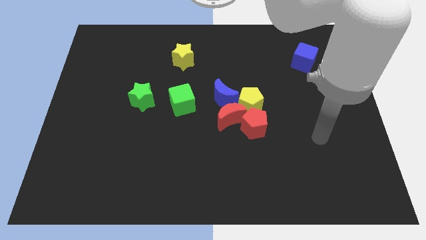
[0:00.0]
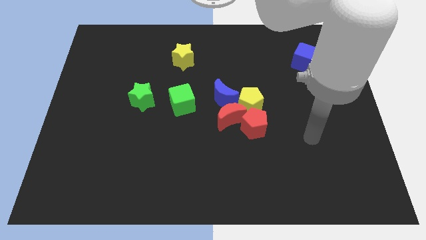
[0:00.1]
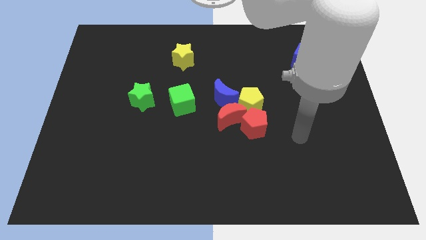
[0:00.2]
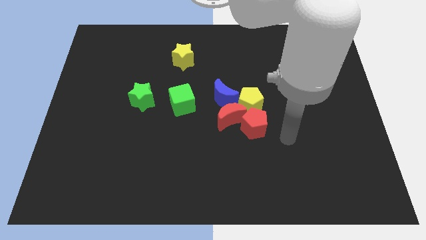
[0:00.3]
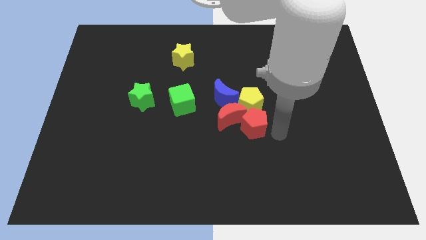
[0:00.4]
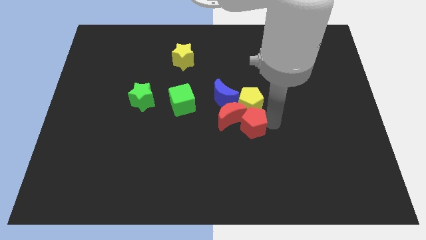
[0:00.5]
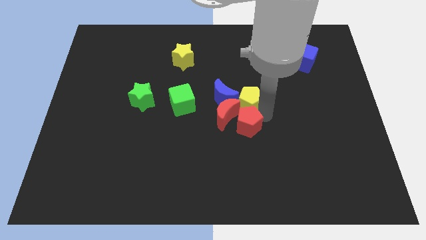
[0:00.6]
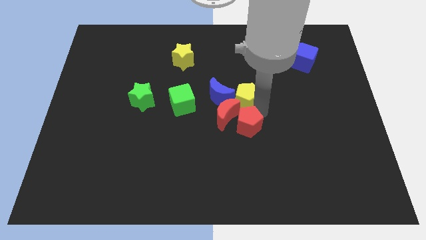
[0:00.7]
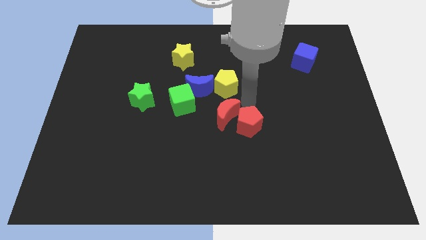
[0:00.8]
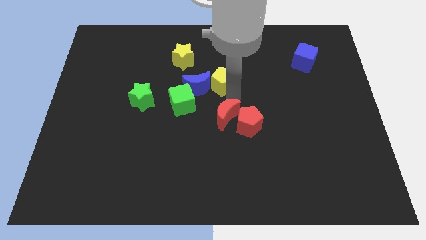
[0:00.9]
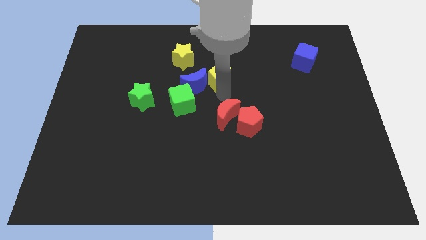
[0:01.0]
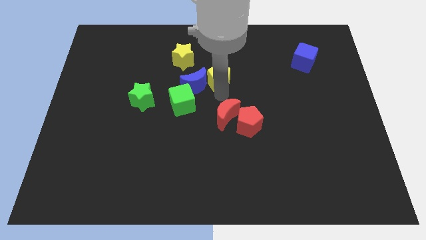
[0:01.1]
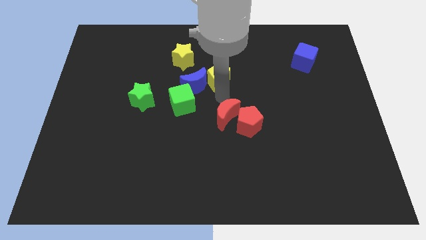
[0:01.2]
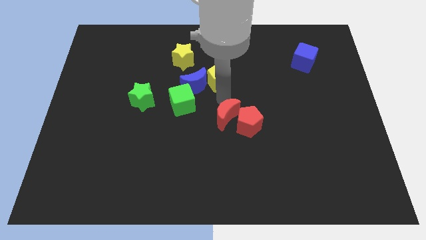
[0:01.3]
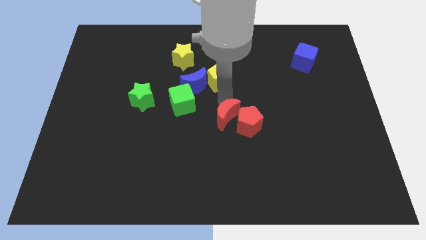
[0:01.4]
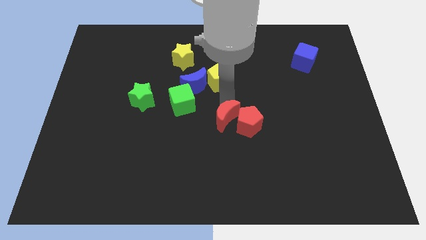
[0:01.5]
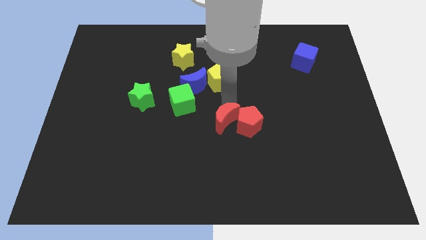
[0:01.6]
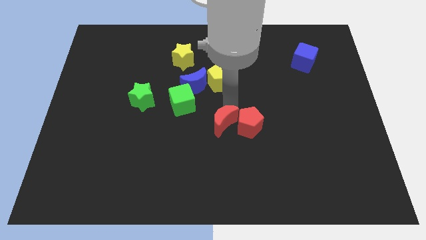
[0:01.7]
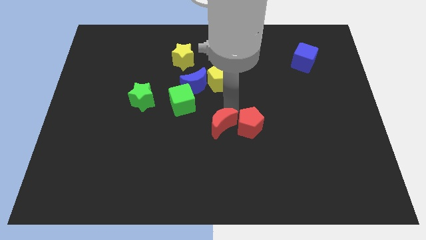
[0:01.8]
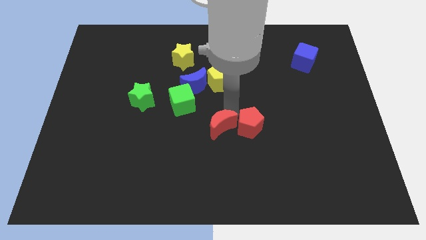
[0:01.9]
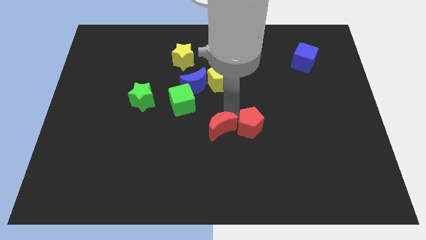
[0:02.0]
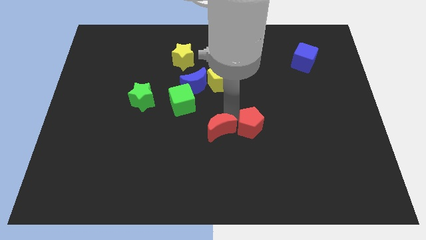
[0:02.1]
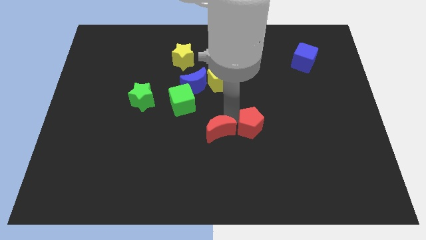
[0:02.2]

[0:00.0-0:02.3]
separate the red moon from the group

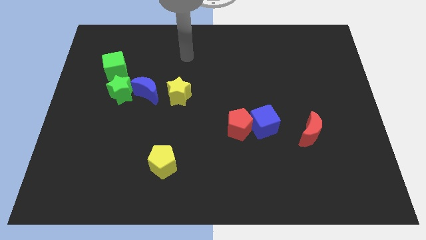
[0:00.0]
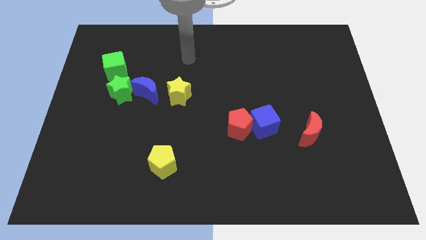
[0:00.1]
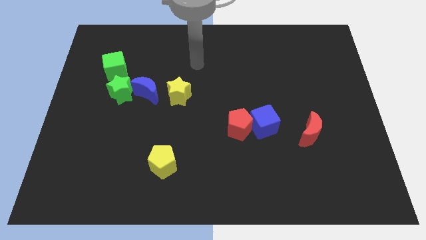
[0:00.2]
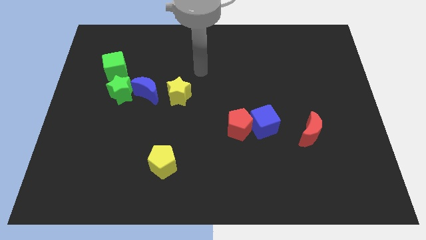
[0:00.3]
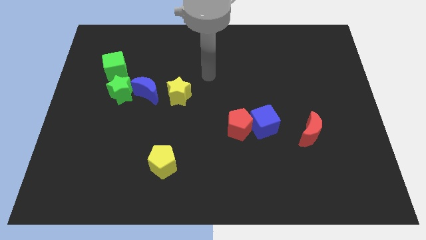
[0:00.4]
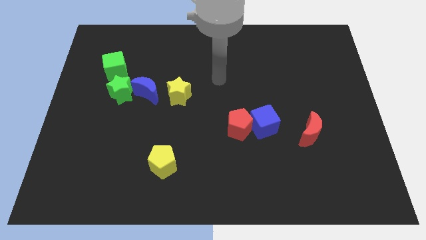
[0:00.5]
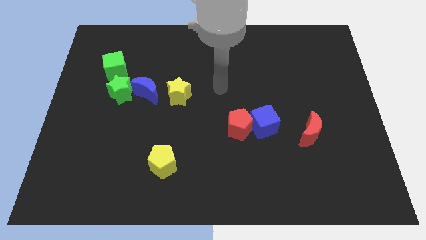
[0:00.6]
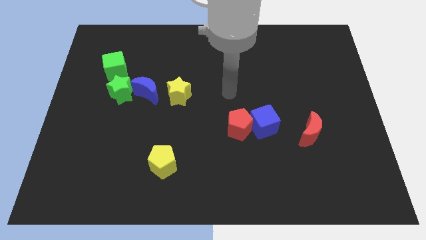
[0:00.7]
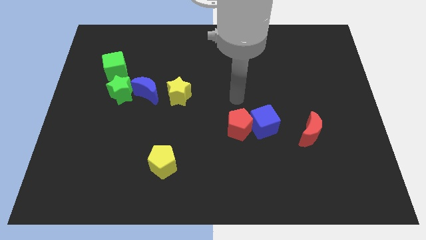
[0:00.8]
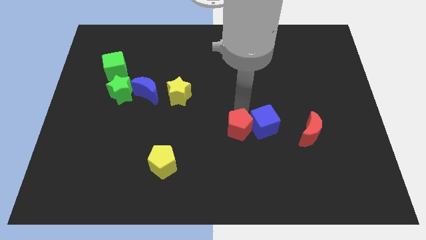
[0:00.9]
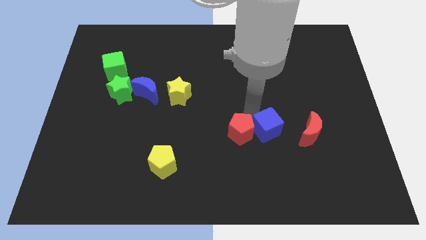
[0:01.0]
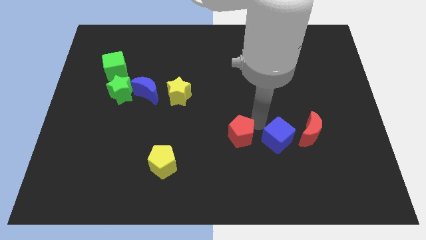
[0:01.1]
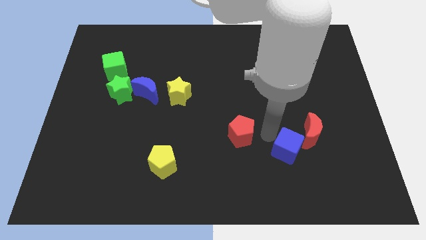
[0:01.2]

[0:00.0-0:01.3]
pull the red pentagon apart from the blue cube

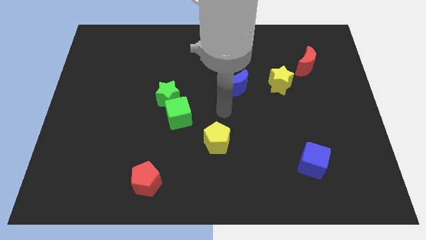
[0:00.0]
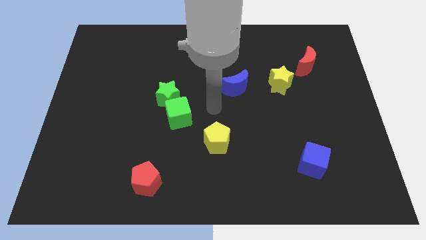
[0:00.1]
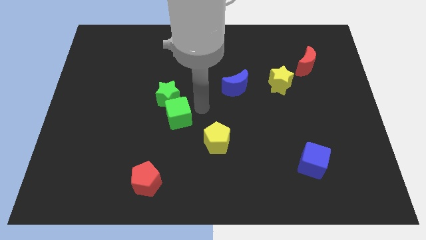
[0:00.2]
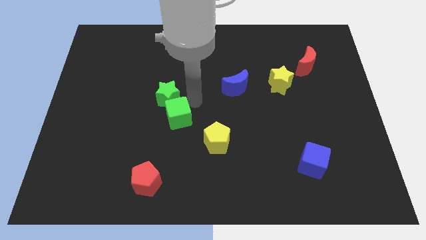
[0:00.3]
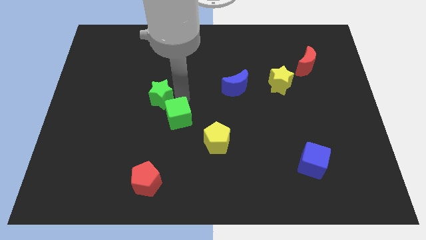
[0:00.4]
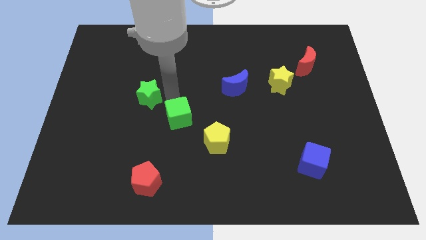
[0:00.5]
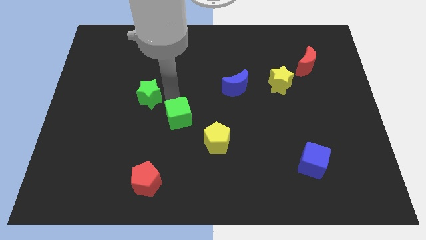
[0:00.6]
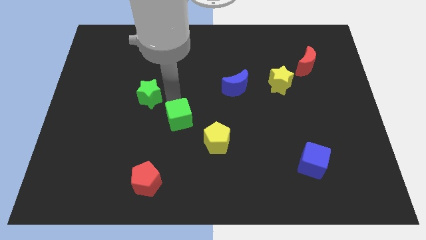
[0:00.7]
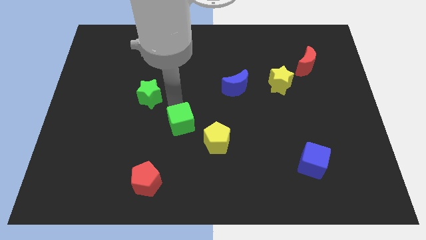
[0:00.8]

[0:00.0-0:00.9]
move the green cube away from the green star

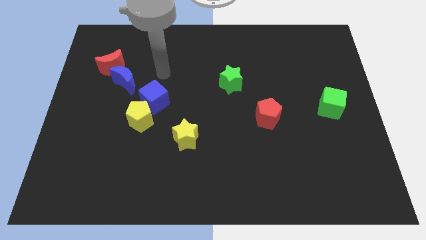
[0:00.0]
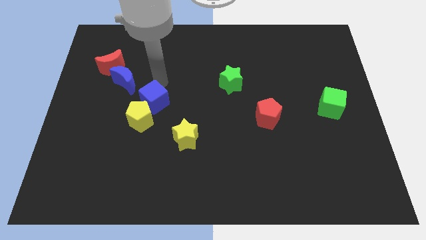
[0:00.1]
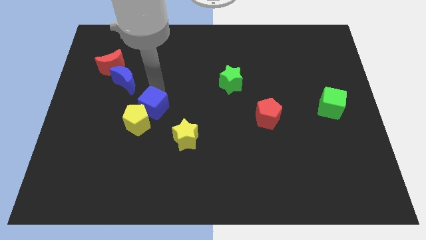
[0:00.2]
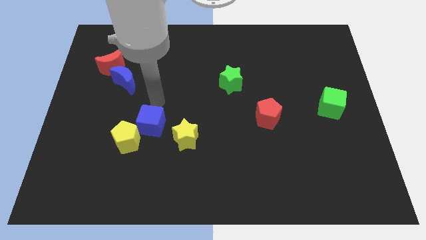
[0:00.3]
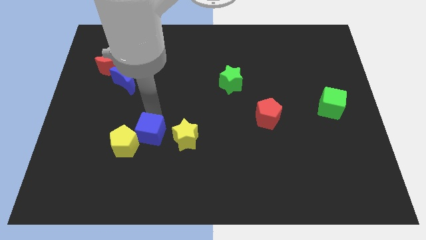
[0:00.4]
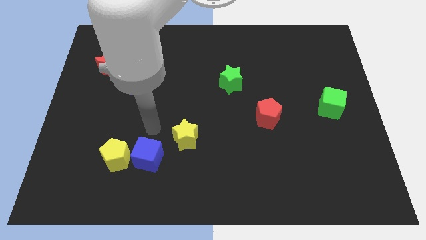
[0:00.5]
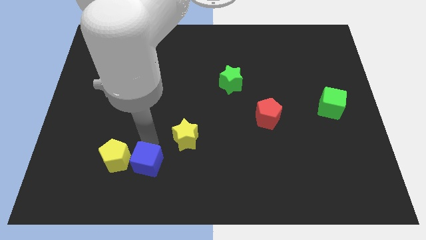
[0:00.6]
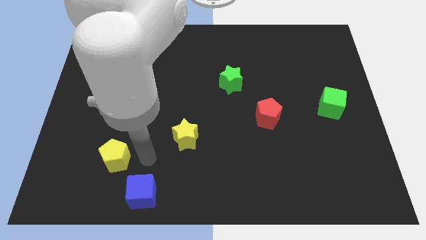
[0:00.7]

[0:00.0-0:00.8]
pull the yellow pentagon apart from the blue cube

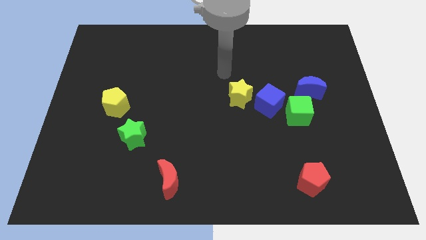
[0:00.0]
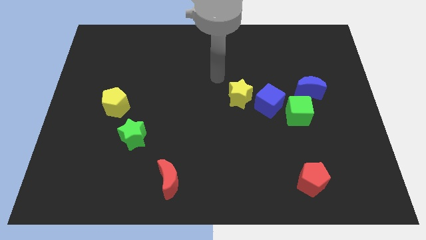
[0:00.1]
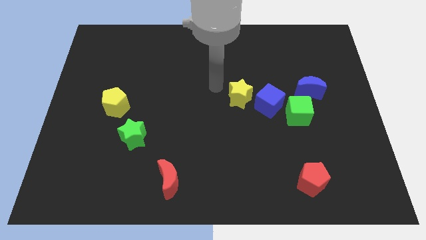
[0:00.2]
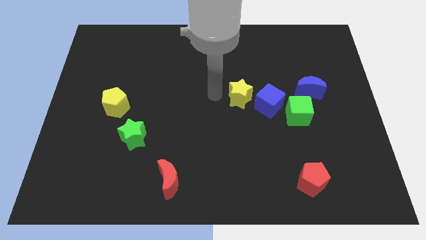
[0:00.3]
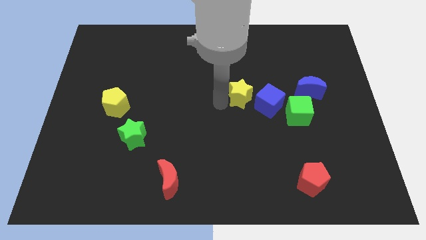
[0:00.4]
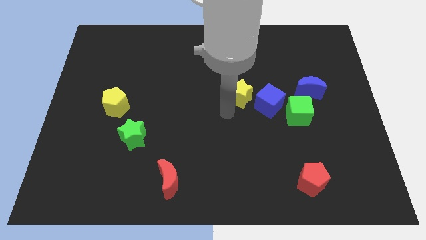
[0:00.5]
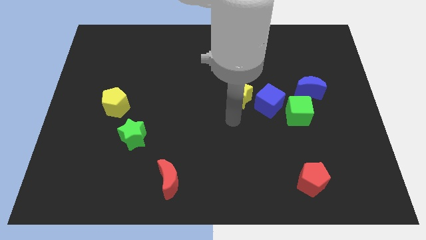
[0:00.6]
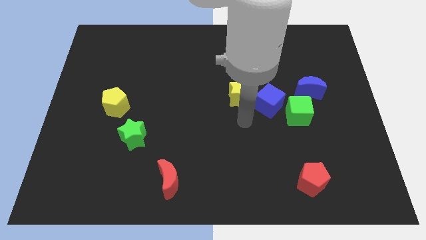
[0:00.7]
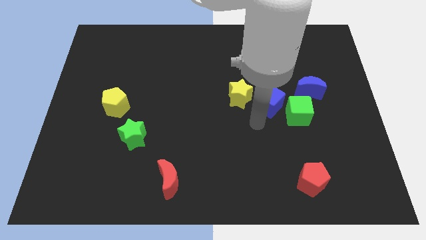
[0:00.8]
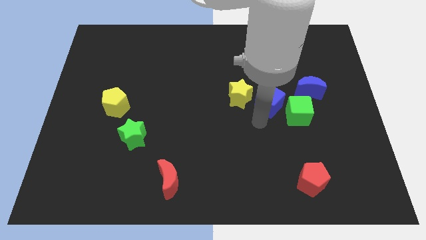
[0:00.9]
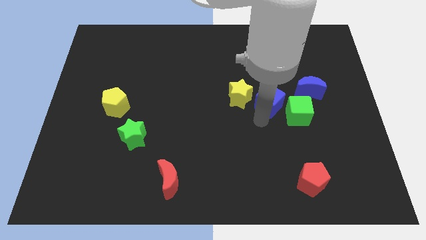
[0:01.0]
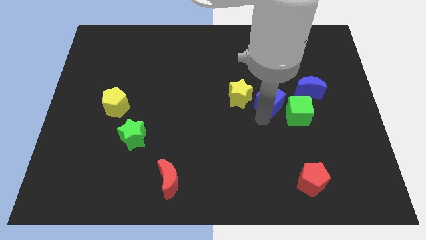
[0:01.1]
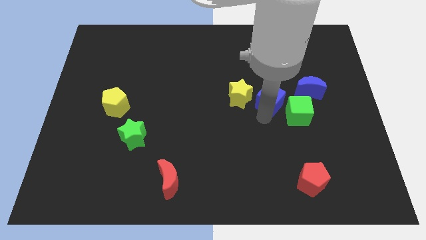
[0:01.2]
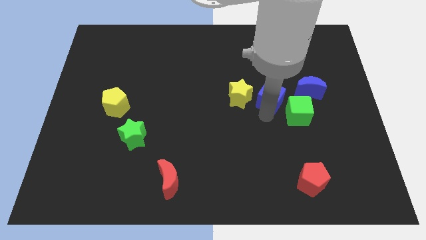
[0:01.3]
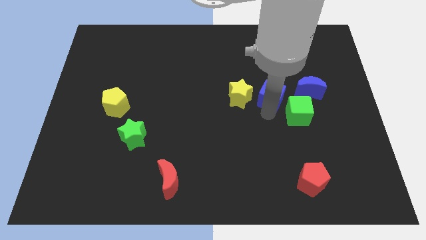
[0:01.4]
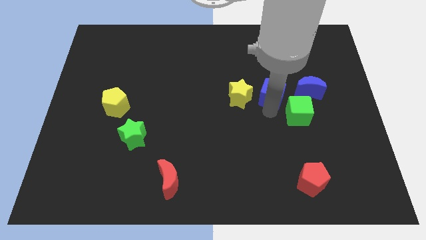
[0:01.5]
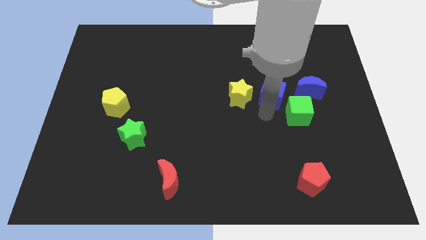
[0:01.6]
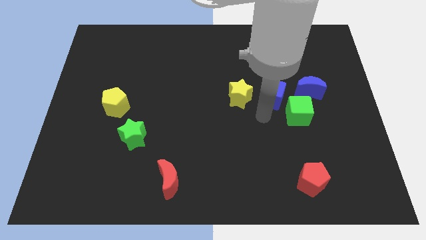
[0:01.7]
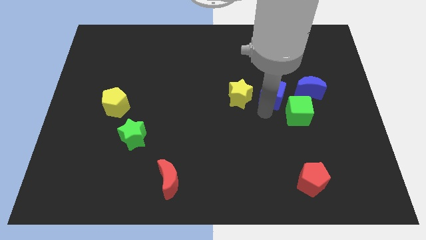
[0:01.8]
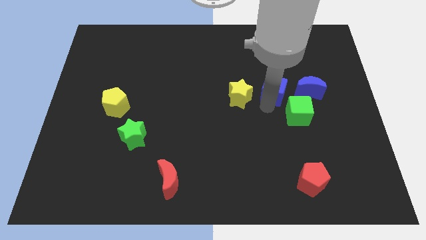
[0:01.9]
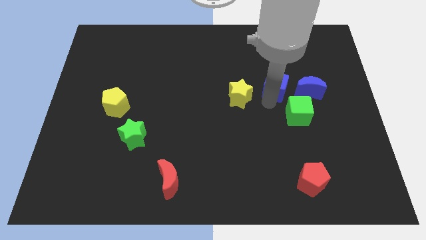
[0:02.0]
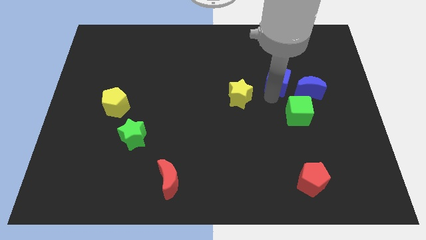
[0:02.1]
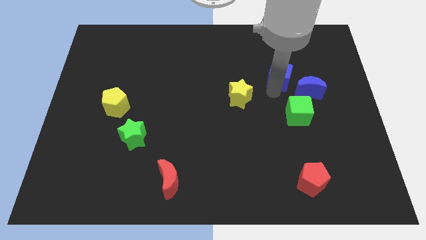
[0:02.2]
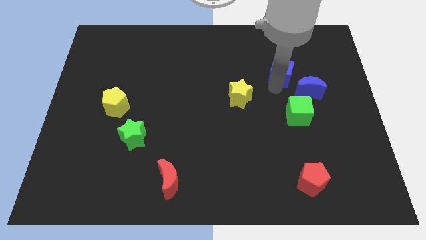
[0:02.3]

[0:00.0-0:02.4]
separate the blue cube from the green cube and yellow star

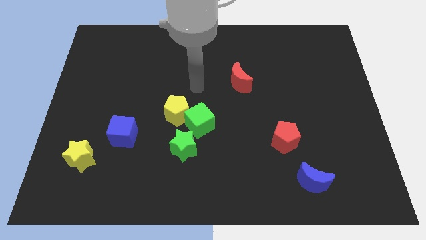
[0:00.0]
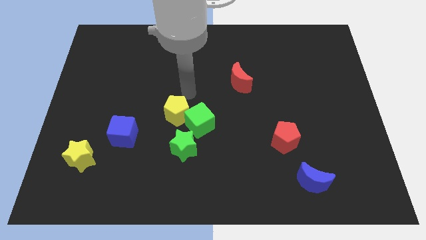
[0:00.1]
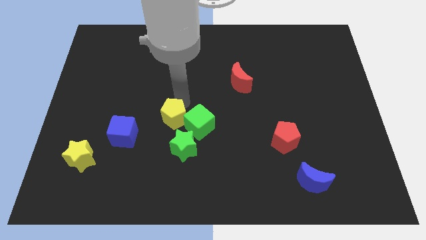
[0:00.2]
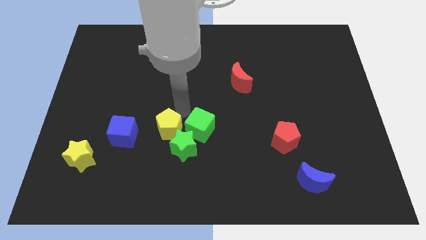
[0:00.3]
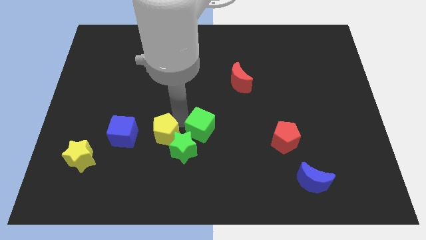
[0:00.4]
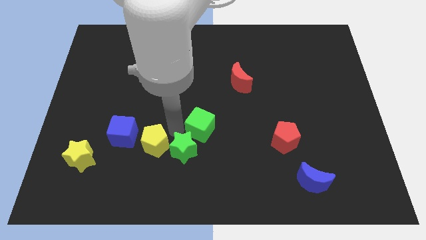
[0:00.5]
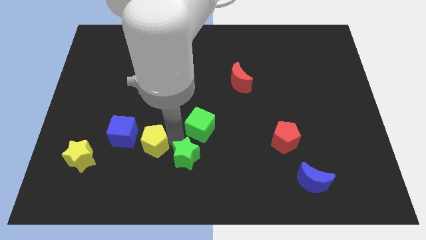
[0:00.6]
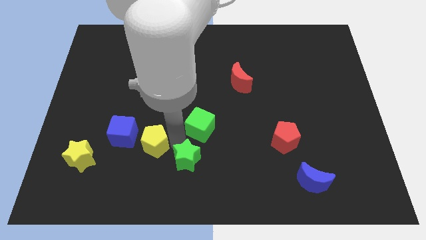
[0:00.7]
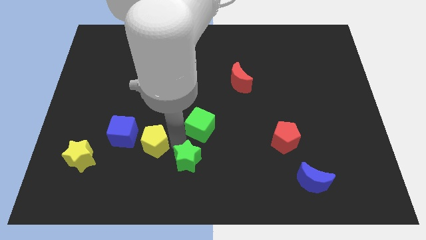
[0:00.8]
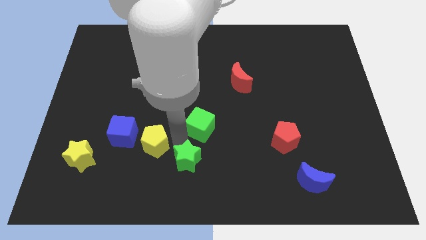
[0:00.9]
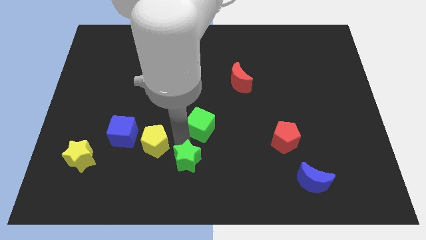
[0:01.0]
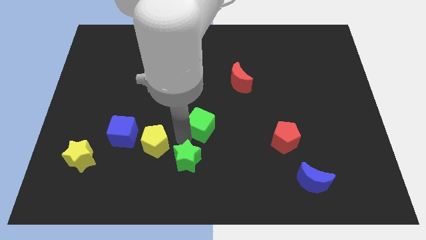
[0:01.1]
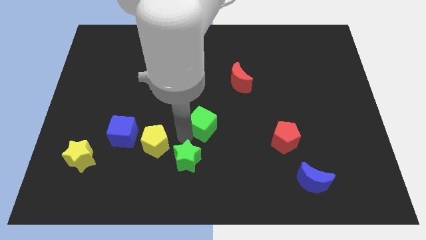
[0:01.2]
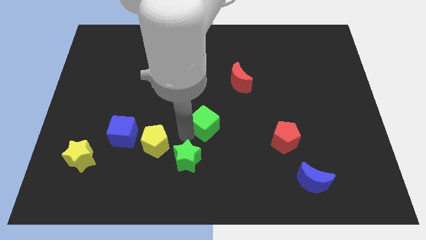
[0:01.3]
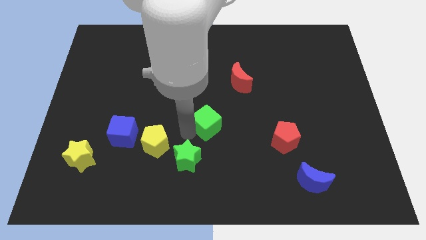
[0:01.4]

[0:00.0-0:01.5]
separate the green cube from the yellow pentagon and green star

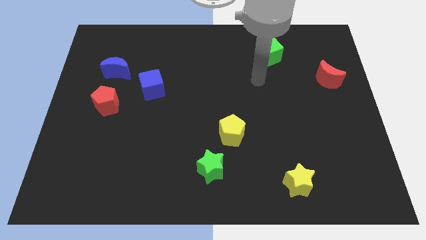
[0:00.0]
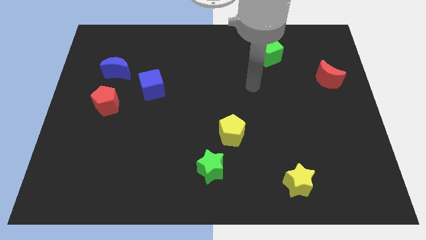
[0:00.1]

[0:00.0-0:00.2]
pull the green star apart from the yellow pentagon
